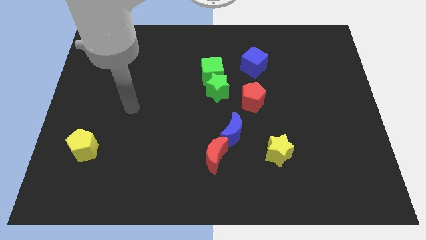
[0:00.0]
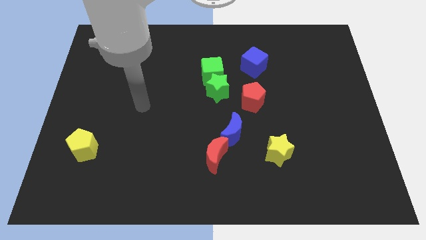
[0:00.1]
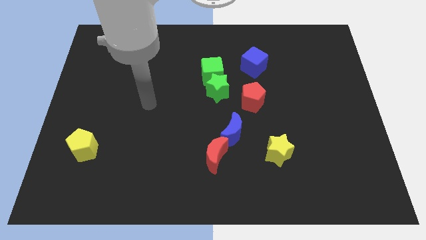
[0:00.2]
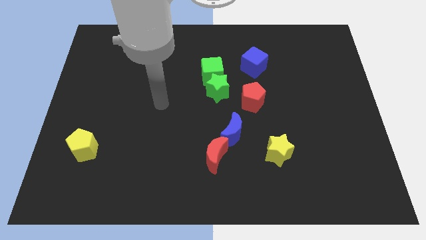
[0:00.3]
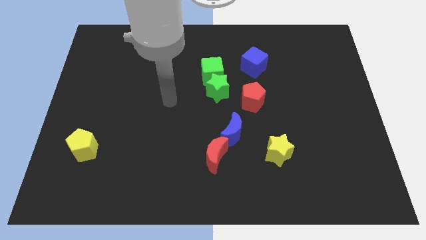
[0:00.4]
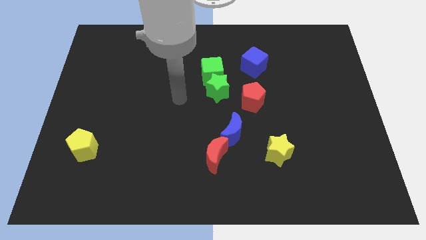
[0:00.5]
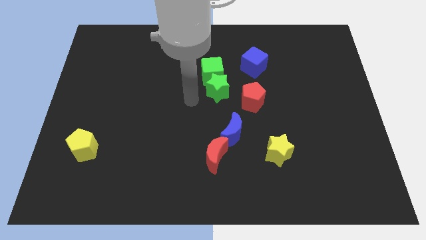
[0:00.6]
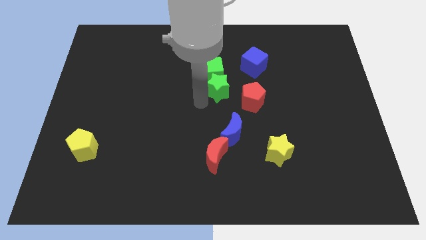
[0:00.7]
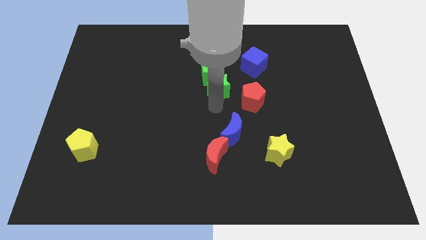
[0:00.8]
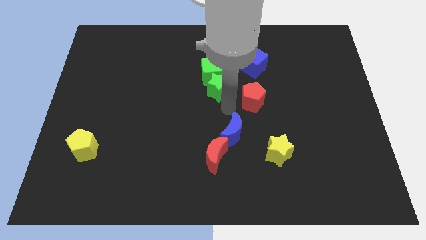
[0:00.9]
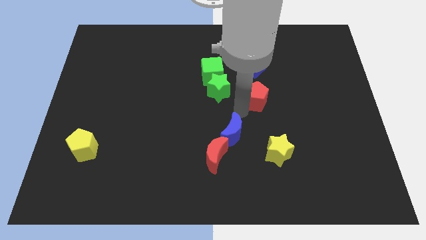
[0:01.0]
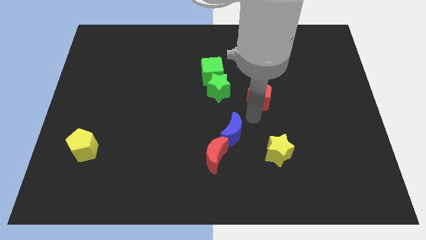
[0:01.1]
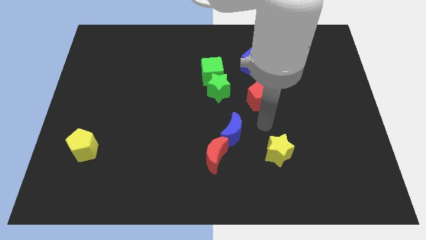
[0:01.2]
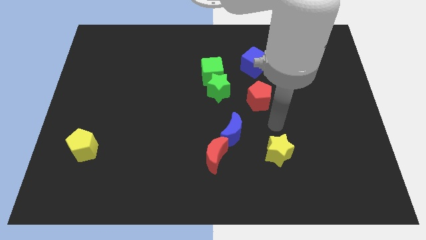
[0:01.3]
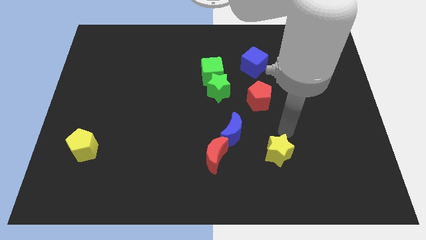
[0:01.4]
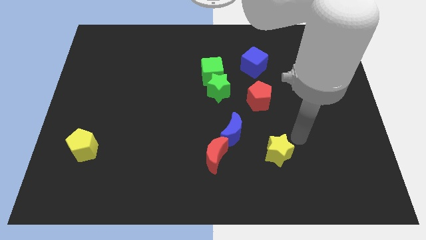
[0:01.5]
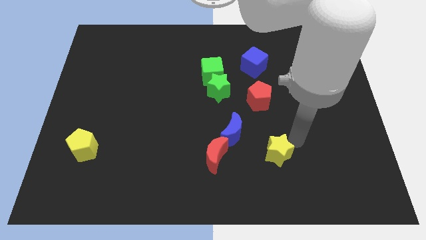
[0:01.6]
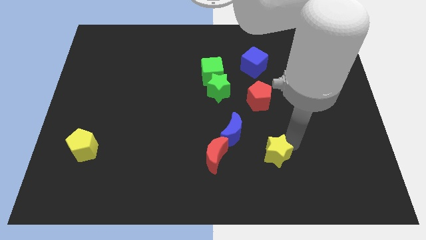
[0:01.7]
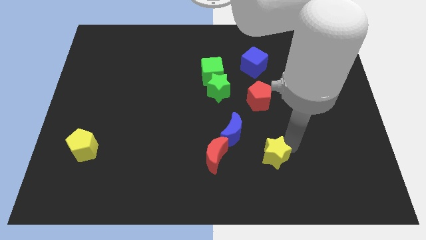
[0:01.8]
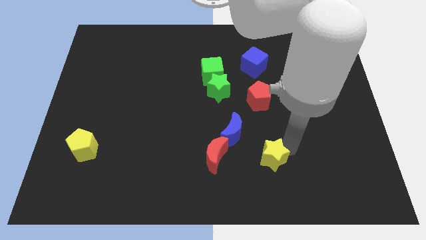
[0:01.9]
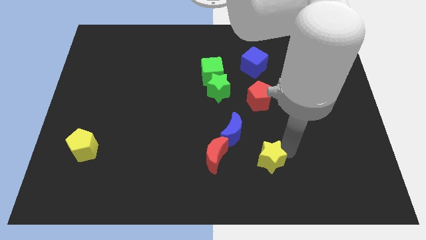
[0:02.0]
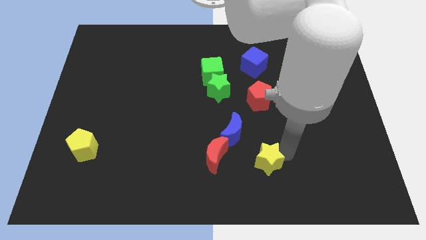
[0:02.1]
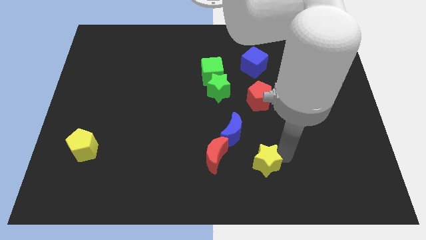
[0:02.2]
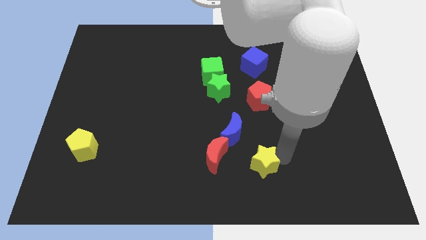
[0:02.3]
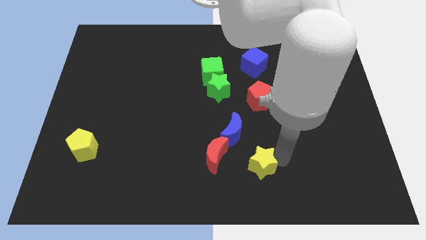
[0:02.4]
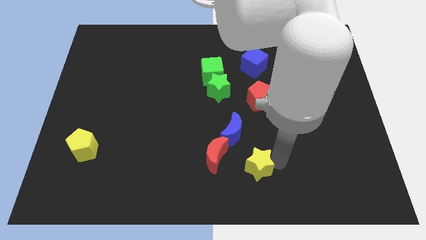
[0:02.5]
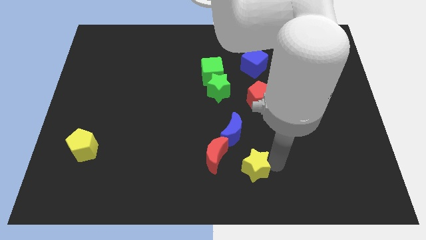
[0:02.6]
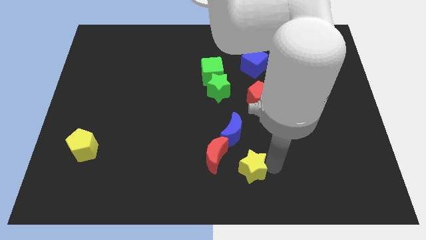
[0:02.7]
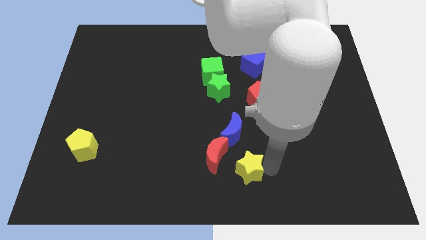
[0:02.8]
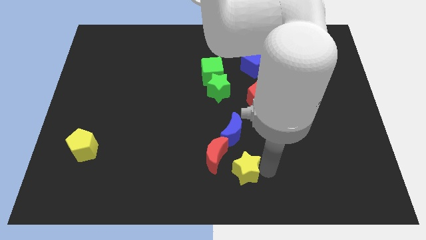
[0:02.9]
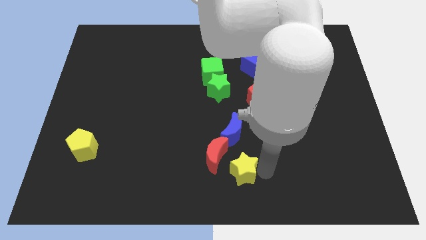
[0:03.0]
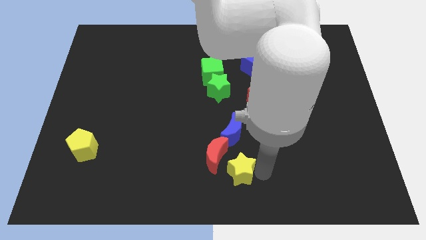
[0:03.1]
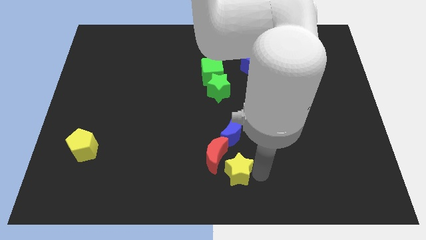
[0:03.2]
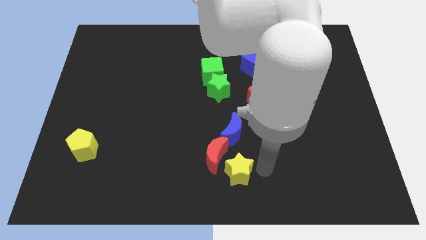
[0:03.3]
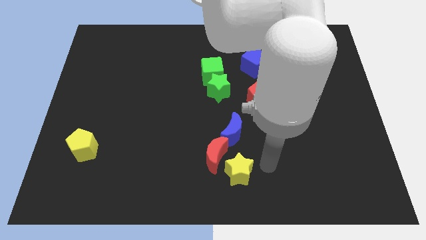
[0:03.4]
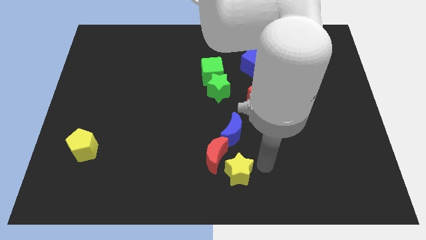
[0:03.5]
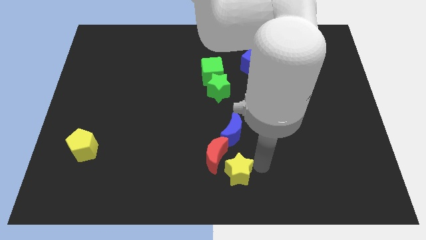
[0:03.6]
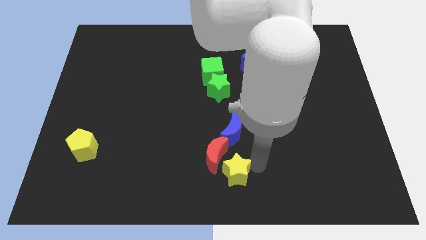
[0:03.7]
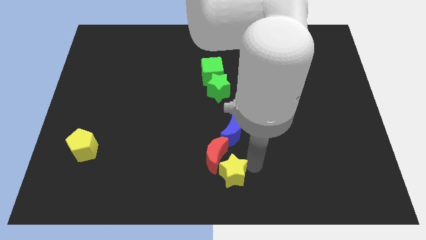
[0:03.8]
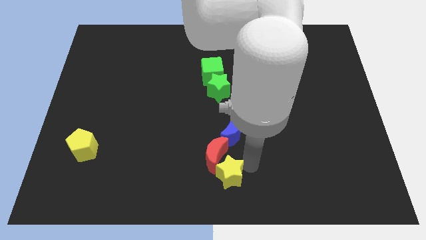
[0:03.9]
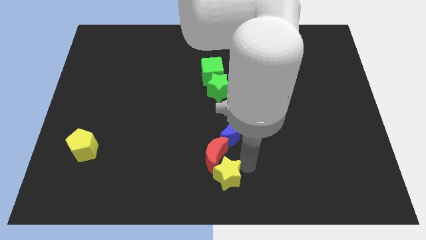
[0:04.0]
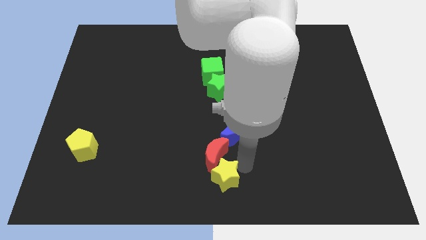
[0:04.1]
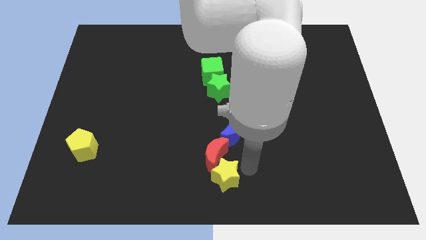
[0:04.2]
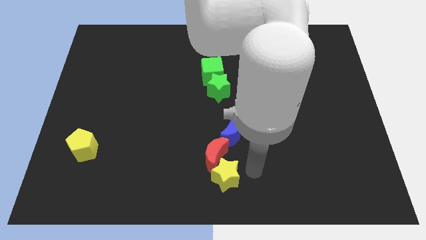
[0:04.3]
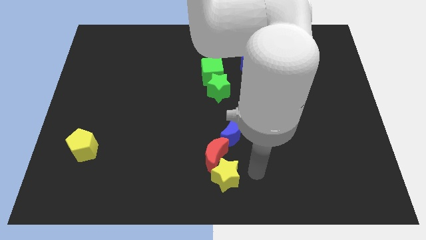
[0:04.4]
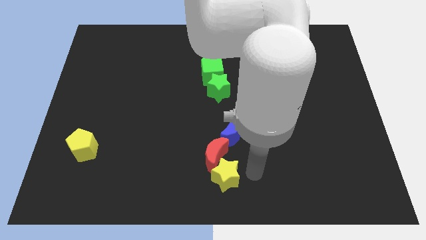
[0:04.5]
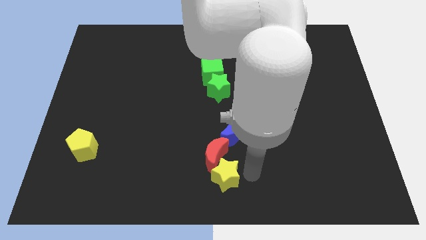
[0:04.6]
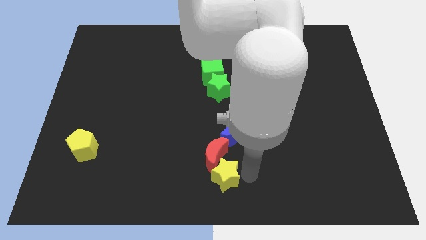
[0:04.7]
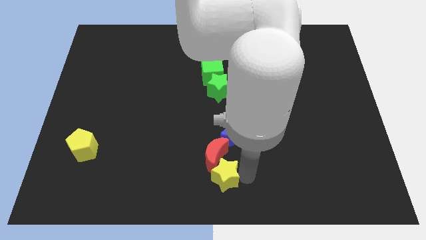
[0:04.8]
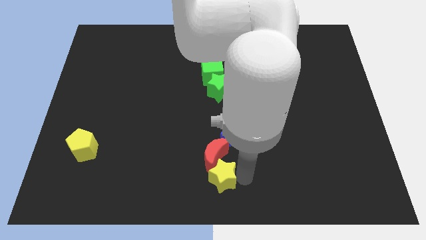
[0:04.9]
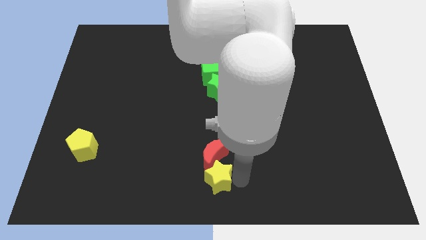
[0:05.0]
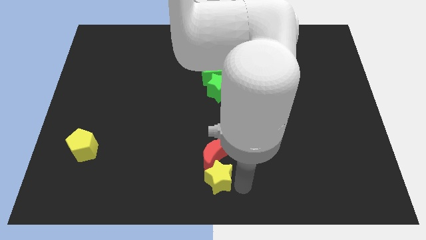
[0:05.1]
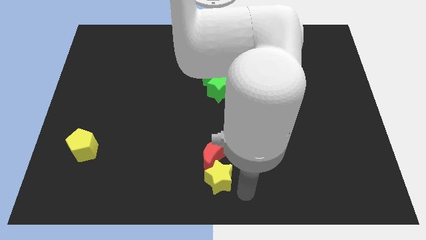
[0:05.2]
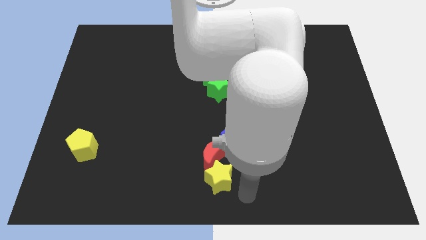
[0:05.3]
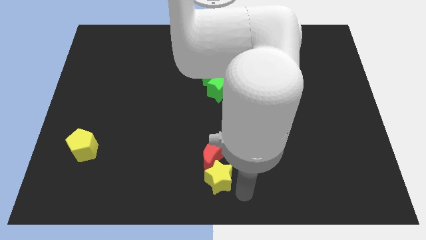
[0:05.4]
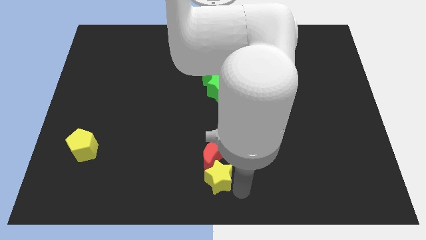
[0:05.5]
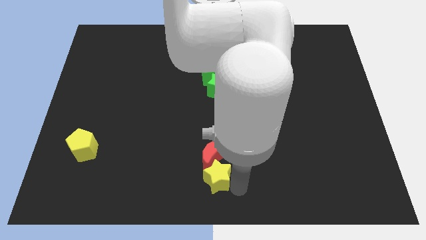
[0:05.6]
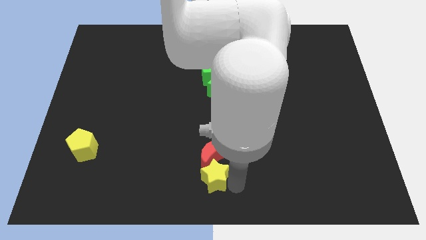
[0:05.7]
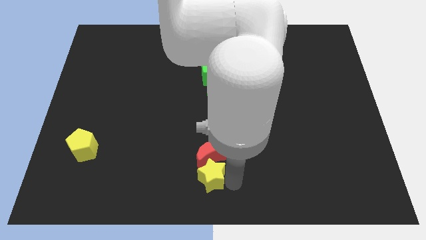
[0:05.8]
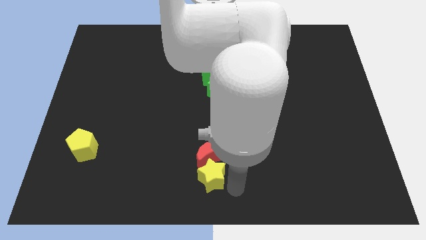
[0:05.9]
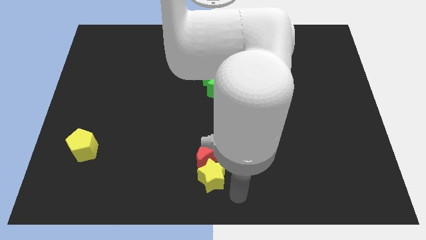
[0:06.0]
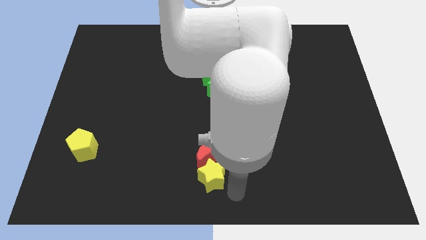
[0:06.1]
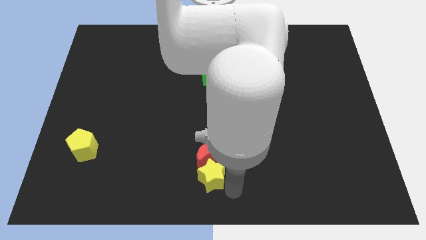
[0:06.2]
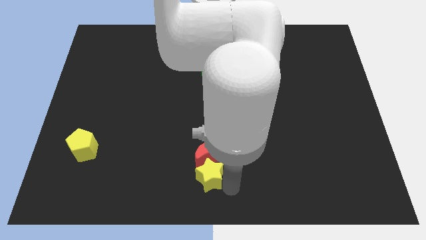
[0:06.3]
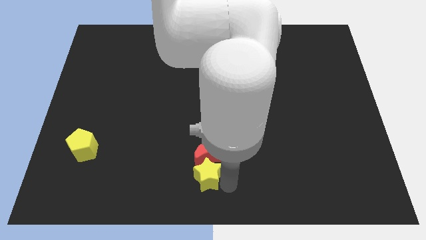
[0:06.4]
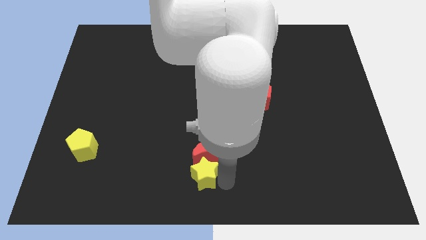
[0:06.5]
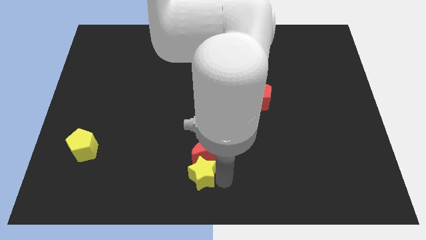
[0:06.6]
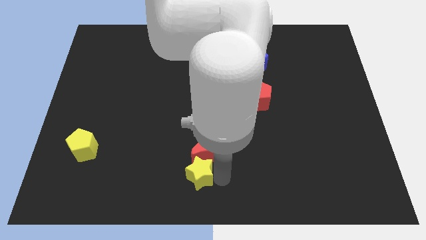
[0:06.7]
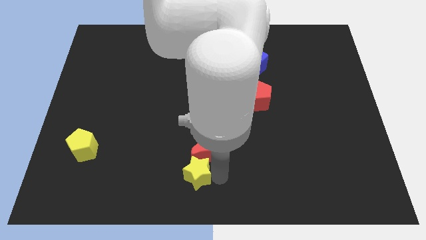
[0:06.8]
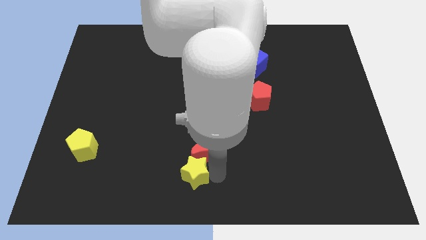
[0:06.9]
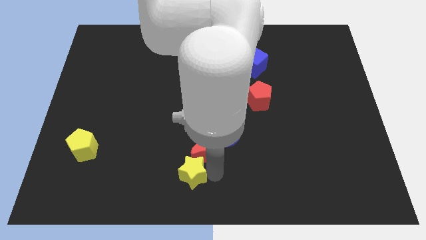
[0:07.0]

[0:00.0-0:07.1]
slide the yellow star to the left of the red moon

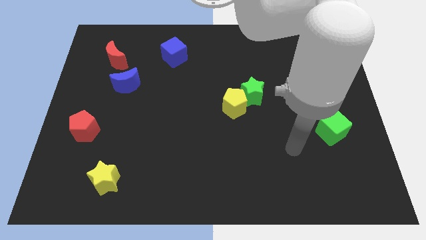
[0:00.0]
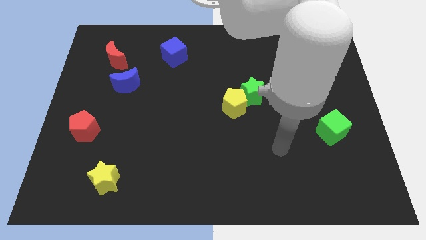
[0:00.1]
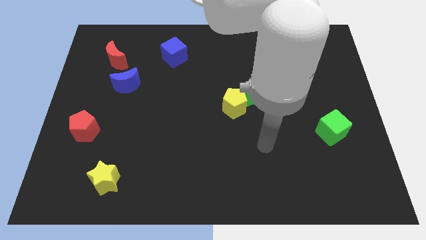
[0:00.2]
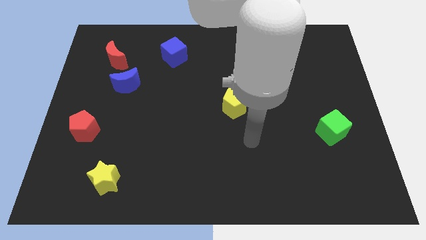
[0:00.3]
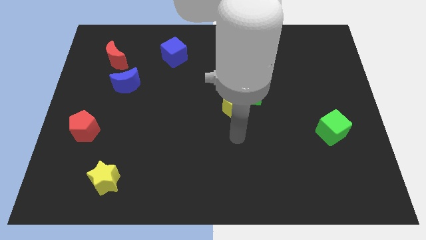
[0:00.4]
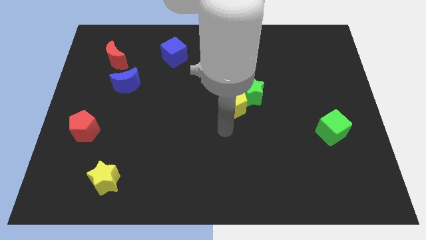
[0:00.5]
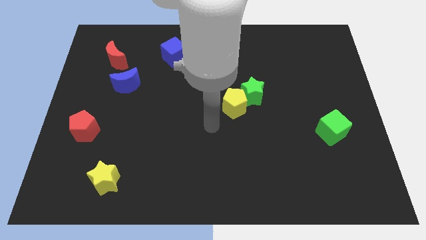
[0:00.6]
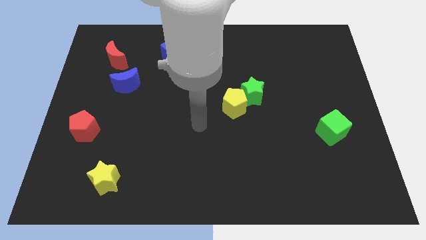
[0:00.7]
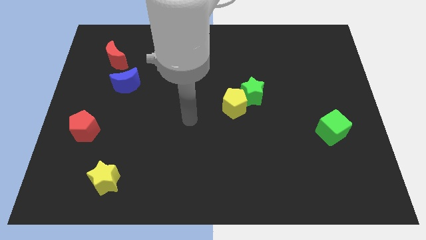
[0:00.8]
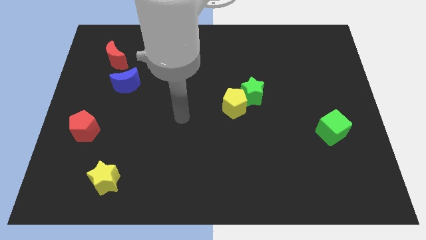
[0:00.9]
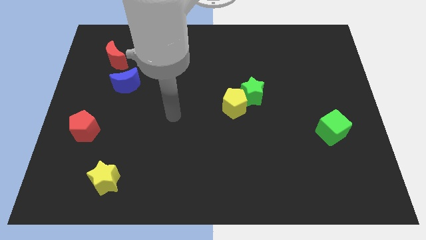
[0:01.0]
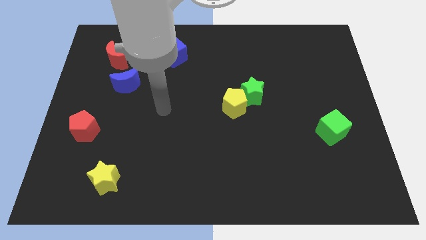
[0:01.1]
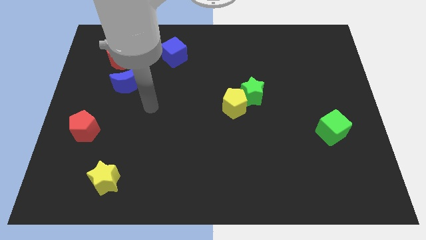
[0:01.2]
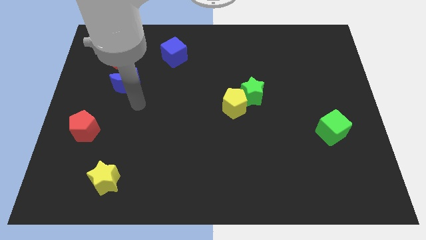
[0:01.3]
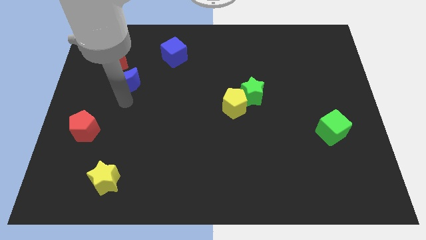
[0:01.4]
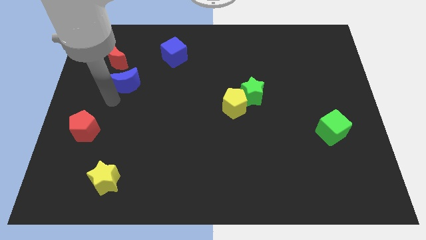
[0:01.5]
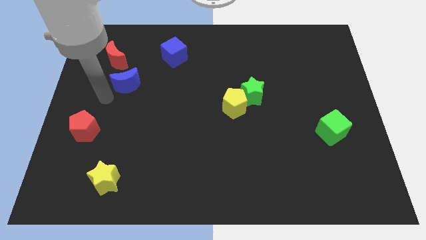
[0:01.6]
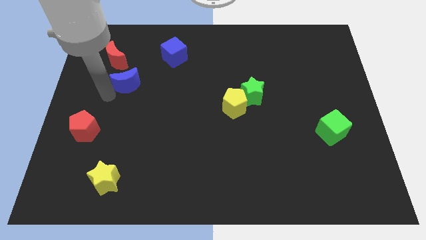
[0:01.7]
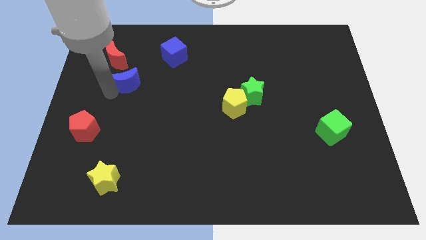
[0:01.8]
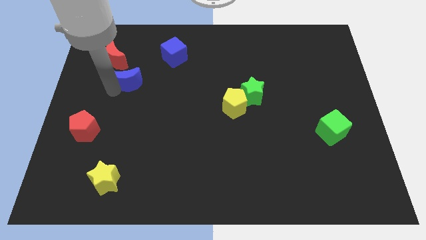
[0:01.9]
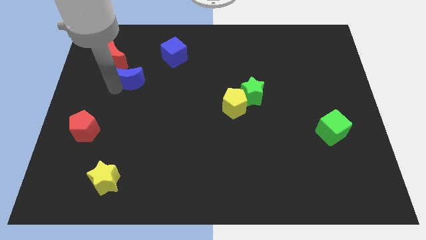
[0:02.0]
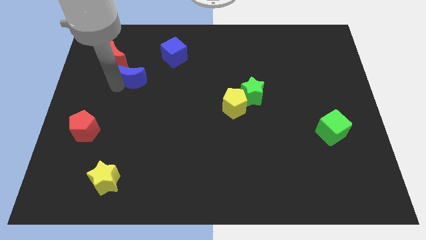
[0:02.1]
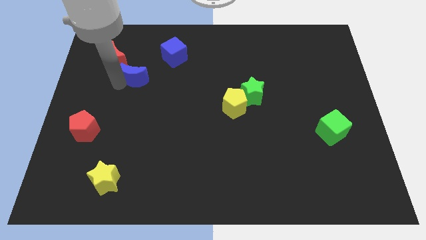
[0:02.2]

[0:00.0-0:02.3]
slide the blue moon to the bottom left of the blue cube
